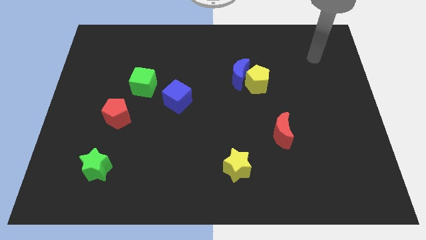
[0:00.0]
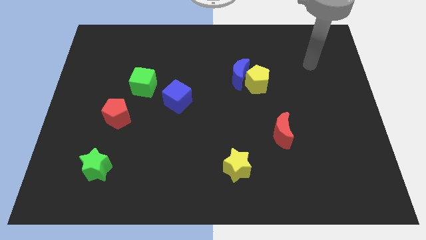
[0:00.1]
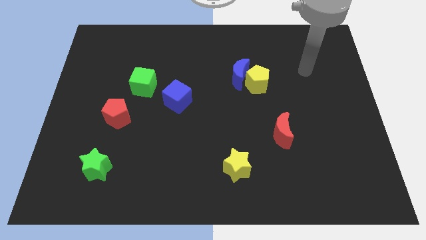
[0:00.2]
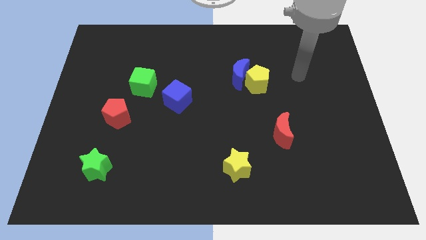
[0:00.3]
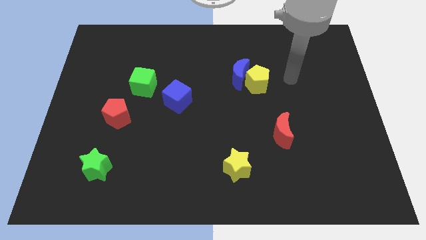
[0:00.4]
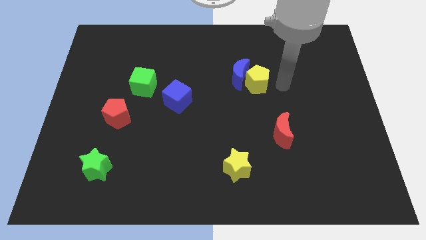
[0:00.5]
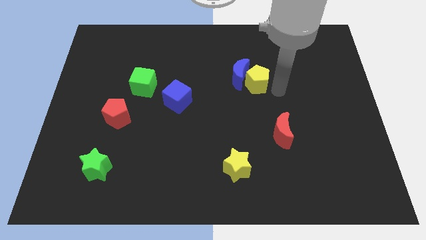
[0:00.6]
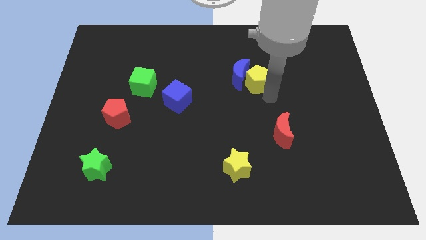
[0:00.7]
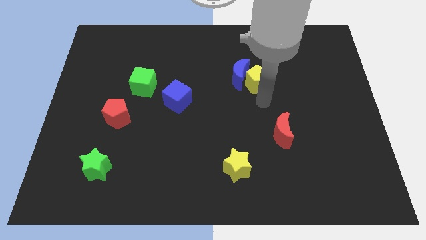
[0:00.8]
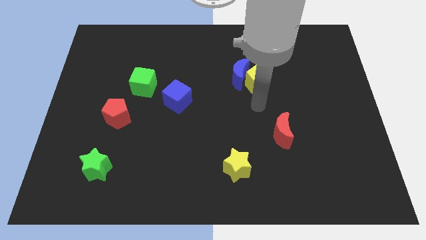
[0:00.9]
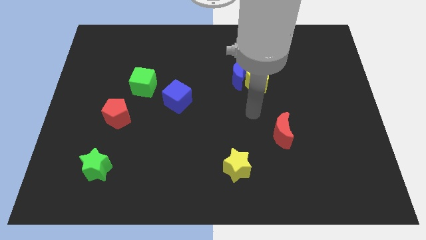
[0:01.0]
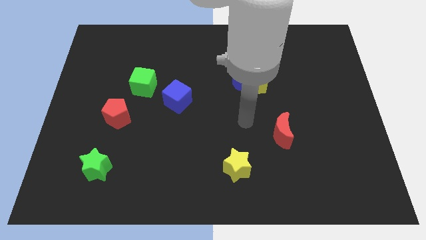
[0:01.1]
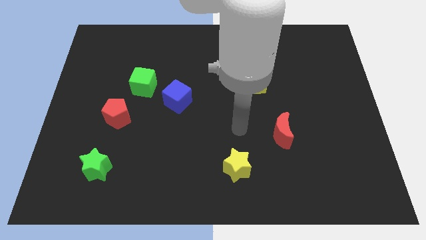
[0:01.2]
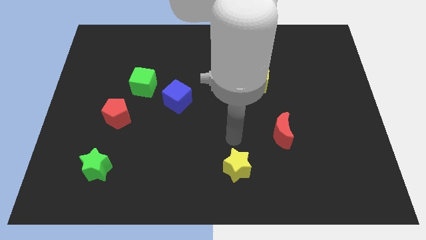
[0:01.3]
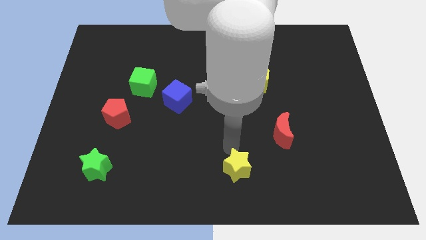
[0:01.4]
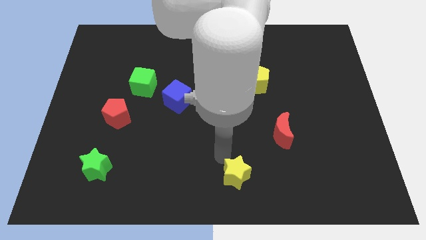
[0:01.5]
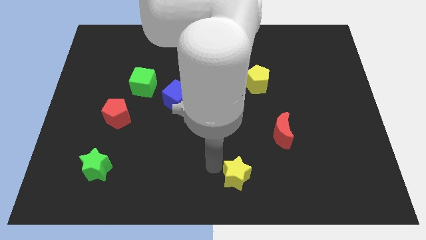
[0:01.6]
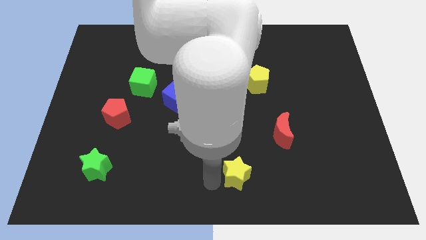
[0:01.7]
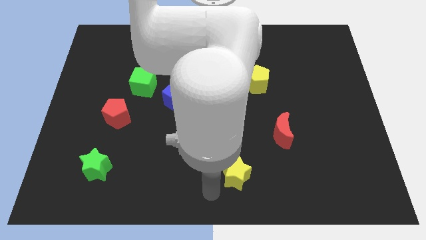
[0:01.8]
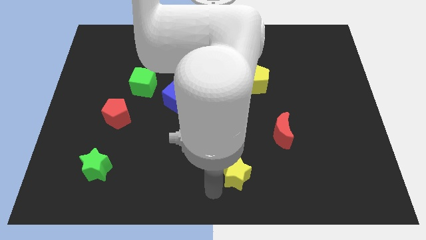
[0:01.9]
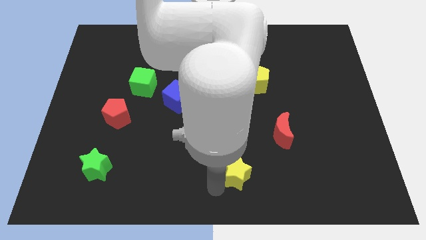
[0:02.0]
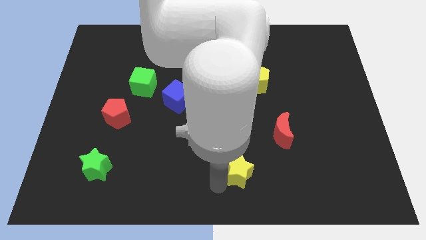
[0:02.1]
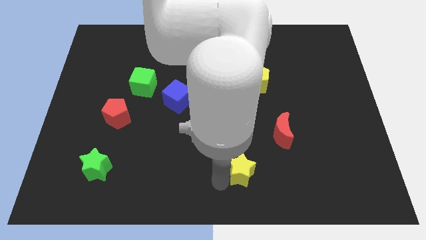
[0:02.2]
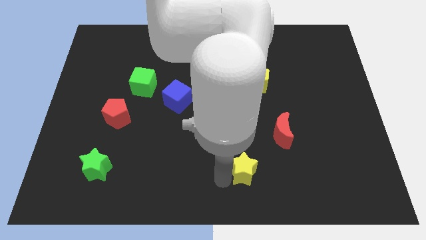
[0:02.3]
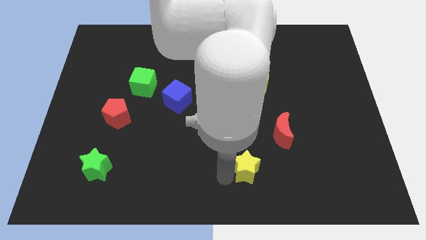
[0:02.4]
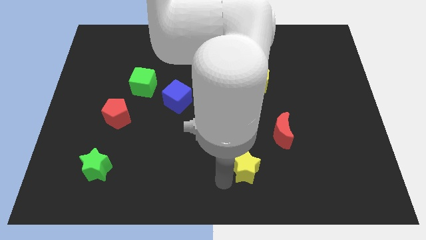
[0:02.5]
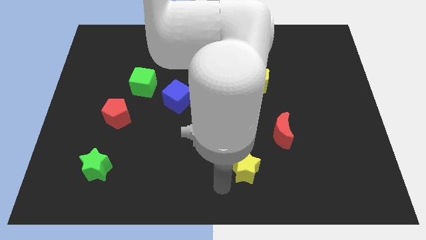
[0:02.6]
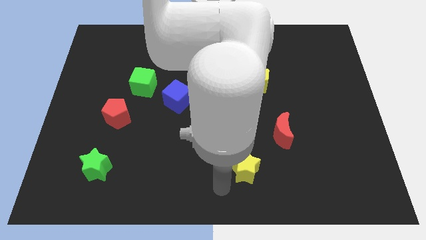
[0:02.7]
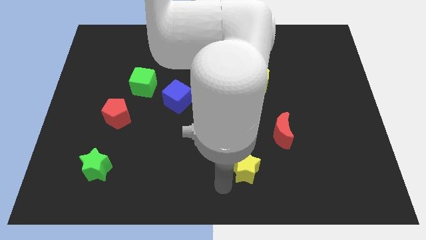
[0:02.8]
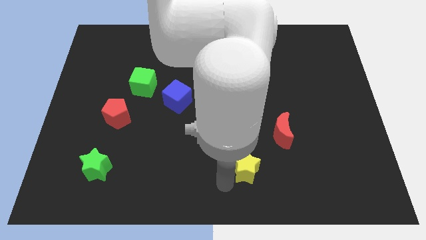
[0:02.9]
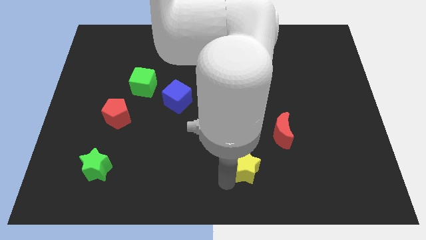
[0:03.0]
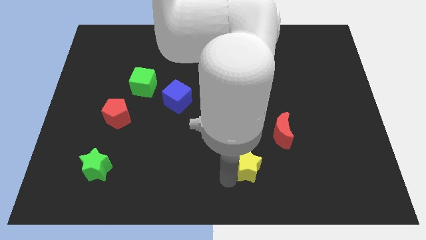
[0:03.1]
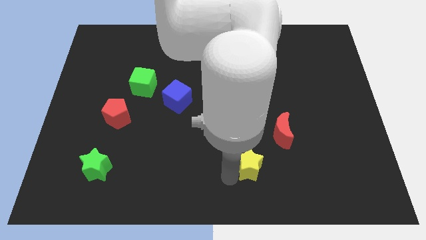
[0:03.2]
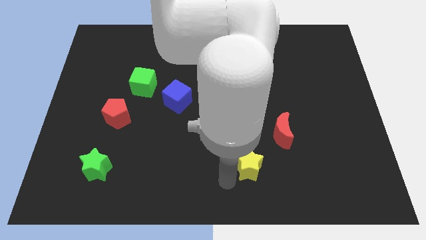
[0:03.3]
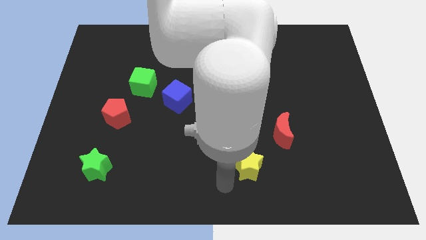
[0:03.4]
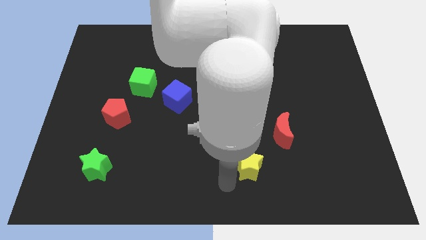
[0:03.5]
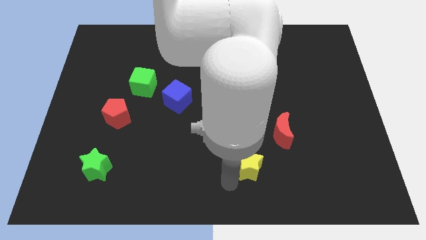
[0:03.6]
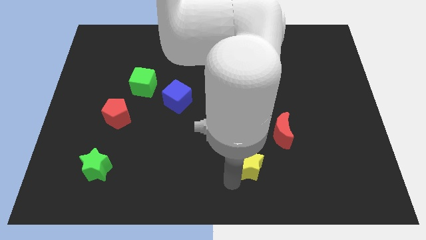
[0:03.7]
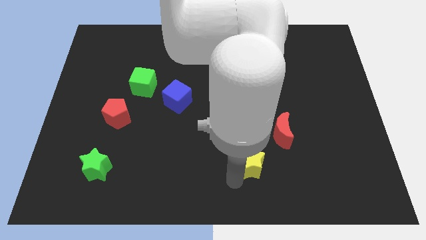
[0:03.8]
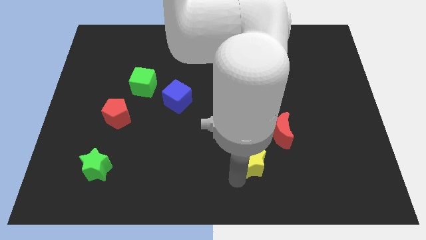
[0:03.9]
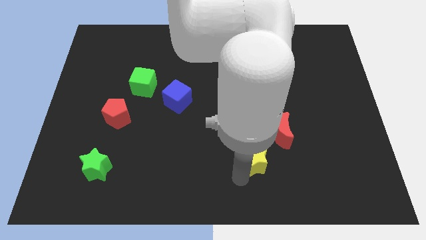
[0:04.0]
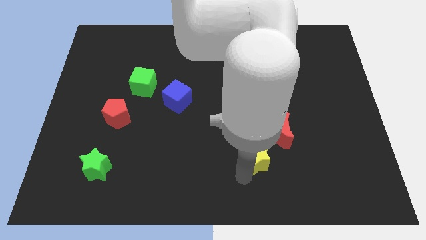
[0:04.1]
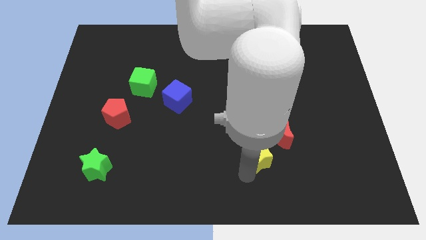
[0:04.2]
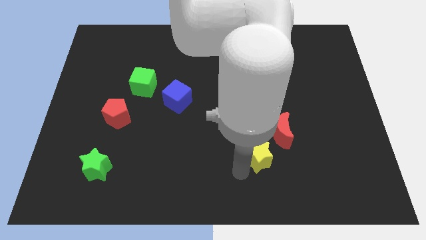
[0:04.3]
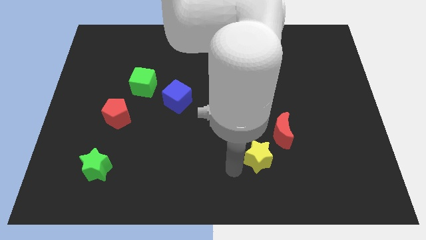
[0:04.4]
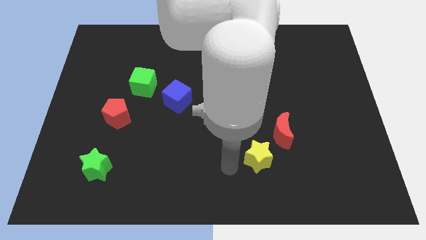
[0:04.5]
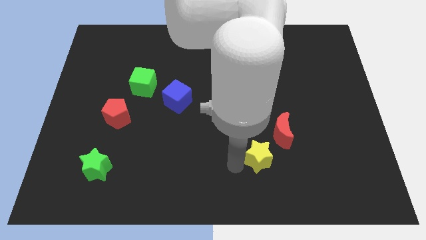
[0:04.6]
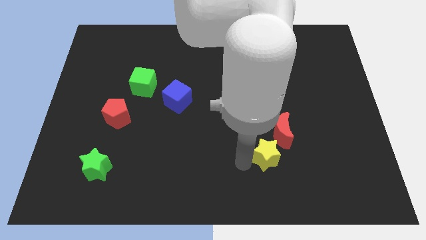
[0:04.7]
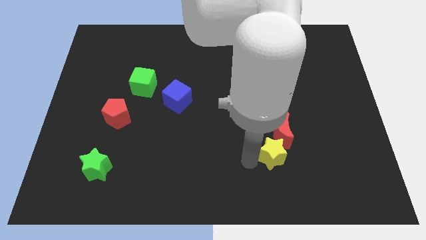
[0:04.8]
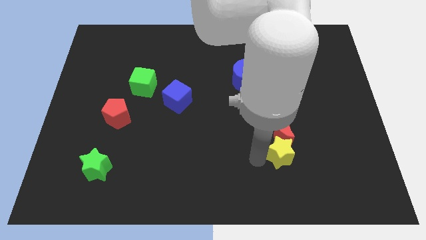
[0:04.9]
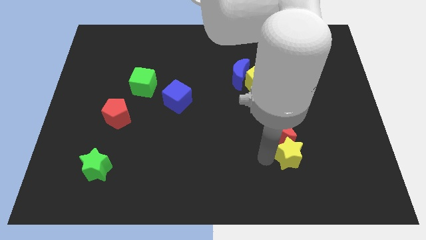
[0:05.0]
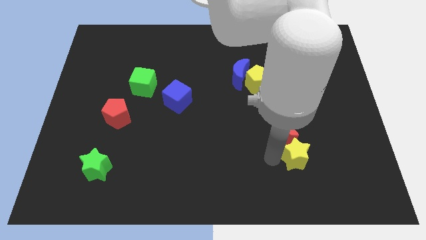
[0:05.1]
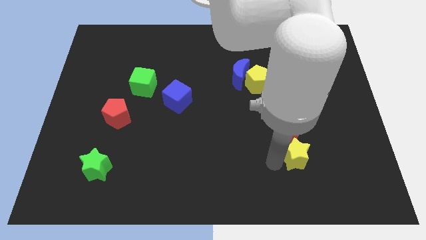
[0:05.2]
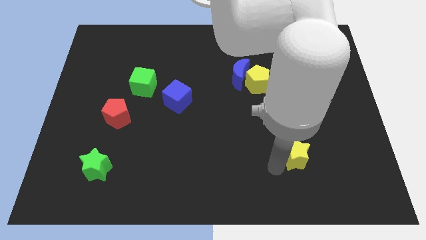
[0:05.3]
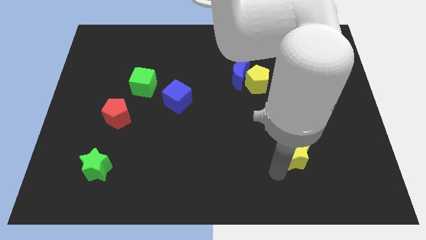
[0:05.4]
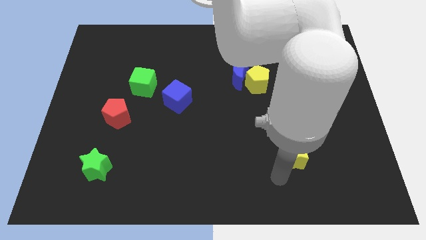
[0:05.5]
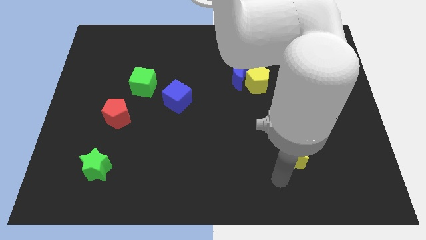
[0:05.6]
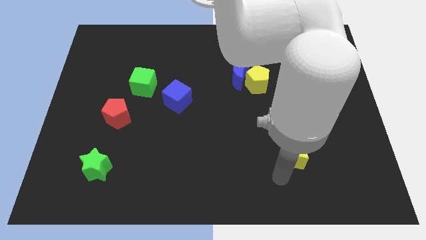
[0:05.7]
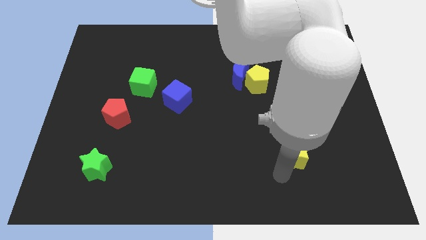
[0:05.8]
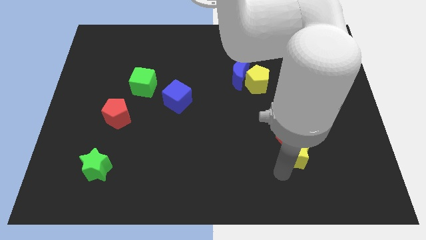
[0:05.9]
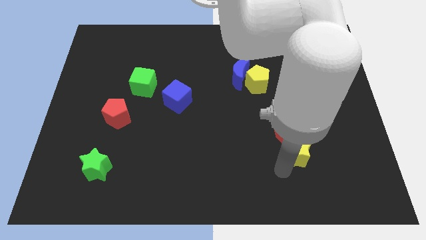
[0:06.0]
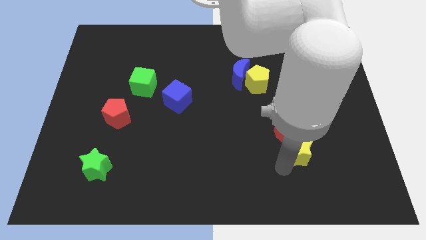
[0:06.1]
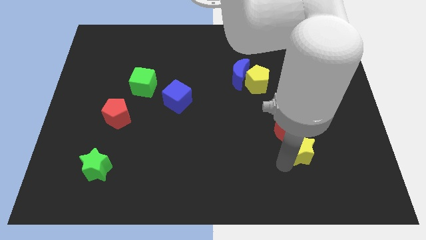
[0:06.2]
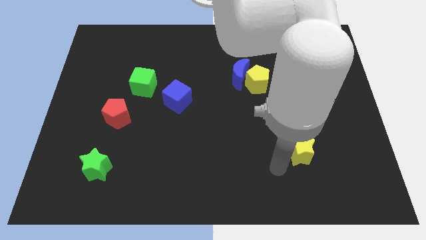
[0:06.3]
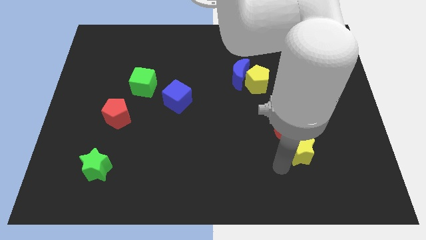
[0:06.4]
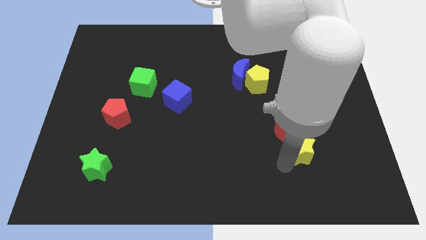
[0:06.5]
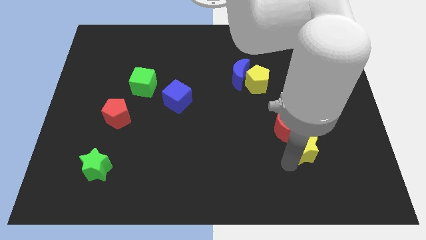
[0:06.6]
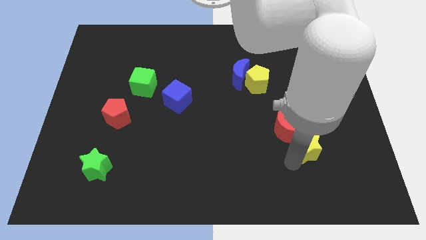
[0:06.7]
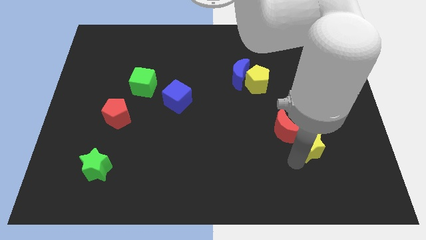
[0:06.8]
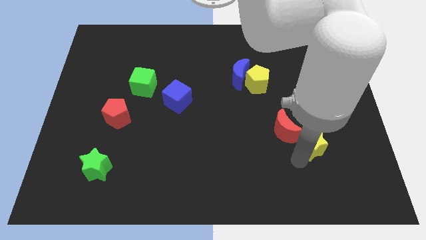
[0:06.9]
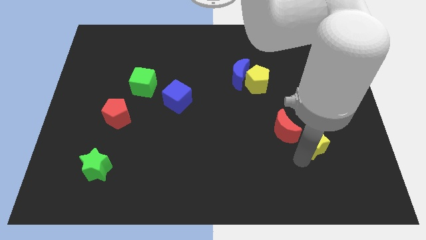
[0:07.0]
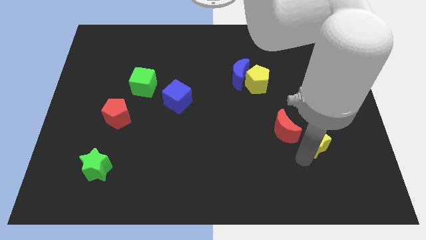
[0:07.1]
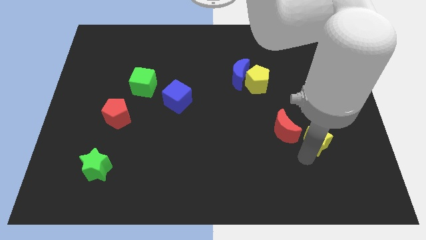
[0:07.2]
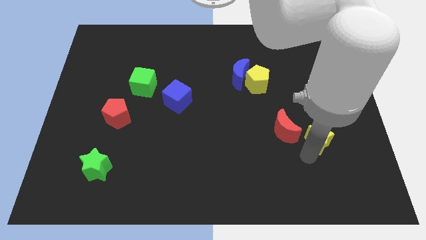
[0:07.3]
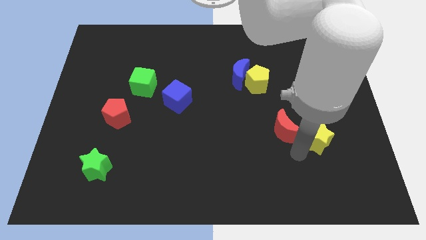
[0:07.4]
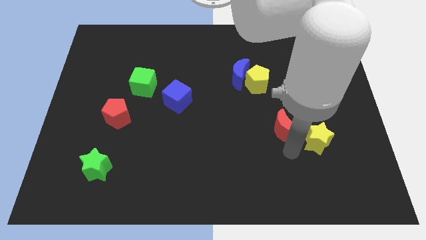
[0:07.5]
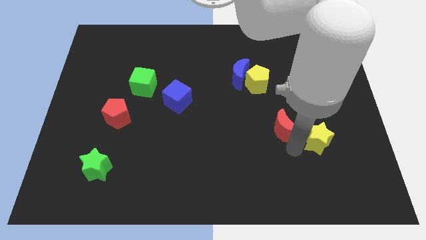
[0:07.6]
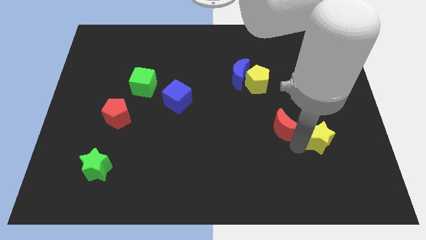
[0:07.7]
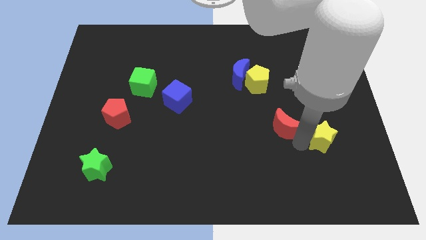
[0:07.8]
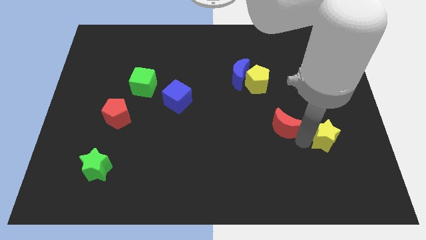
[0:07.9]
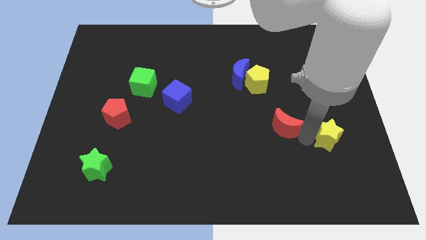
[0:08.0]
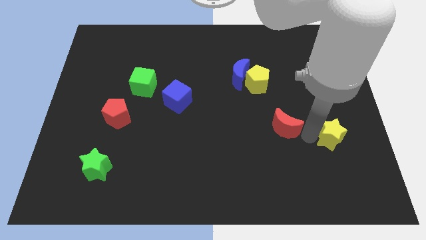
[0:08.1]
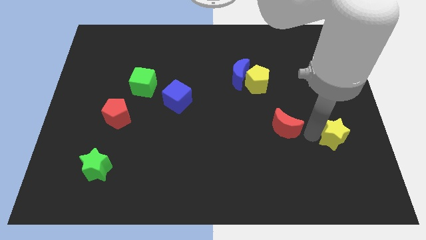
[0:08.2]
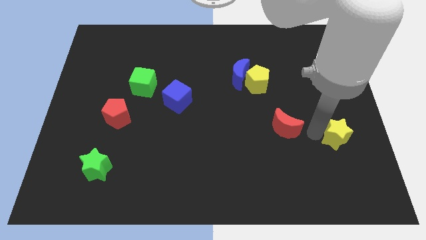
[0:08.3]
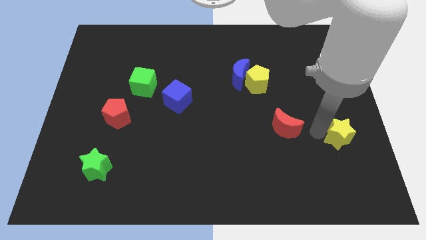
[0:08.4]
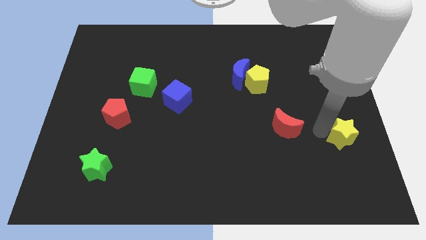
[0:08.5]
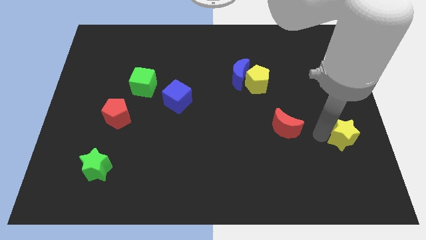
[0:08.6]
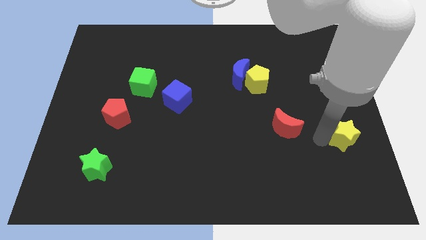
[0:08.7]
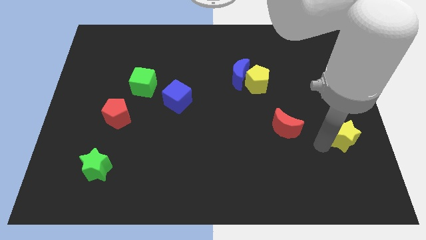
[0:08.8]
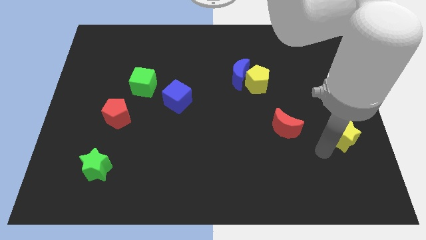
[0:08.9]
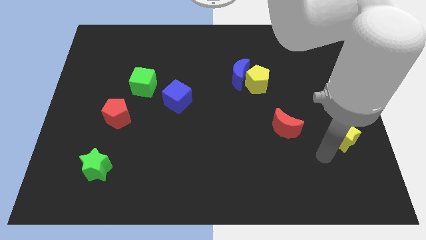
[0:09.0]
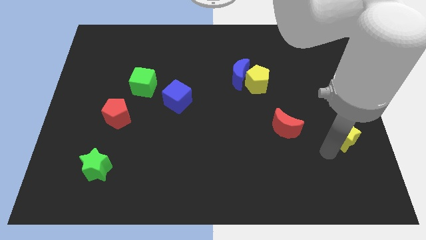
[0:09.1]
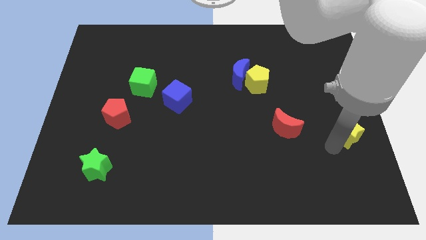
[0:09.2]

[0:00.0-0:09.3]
move the yellow star to the right side of the board
